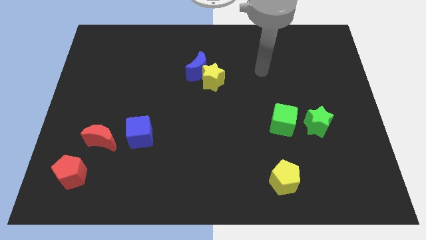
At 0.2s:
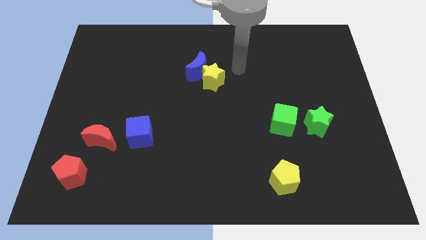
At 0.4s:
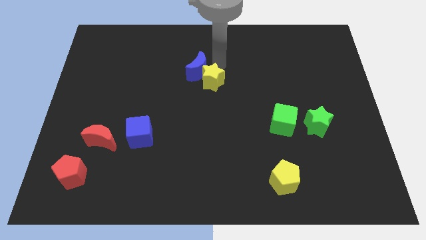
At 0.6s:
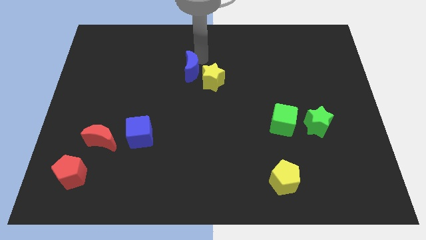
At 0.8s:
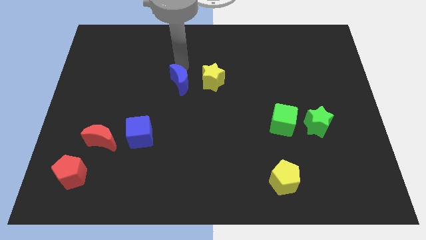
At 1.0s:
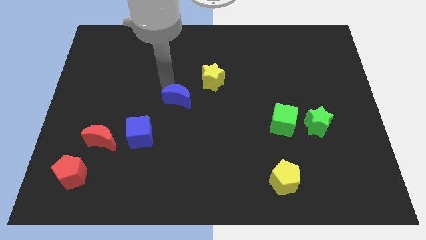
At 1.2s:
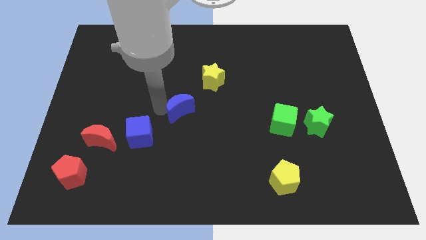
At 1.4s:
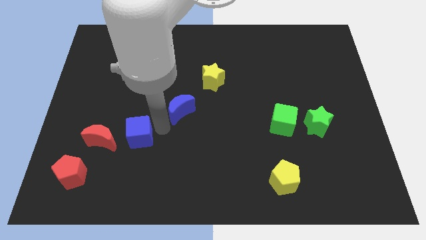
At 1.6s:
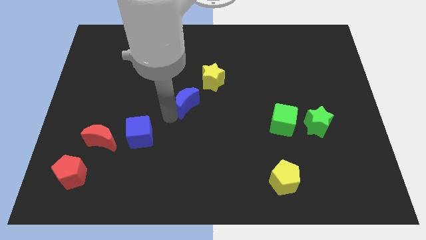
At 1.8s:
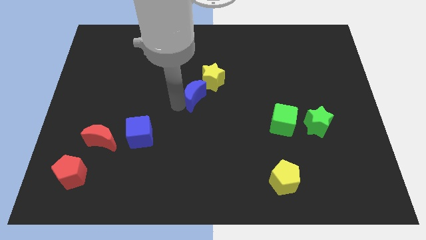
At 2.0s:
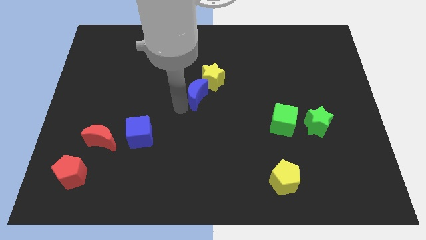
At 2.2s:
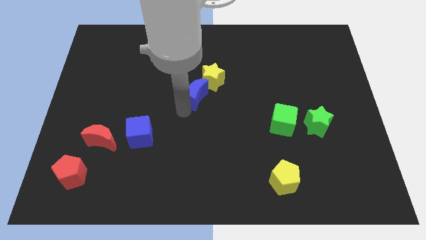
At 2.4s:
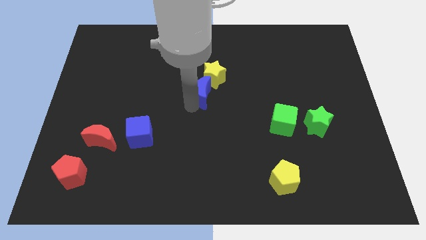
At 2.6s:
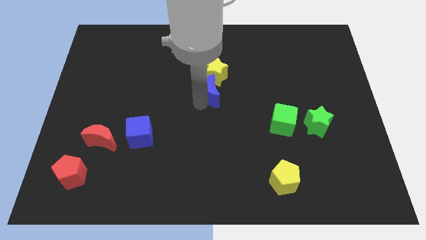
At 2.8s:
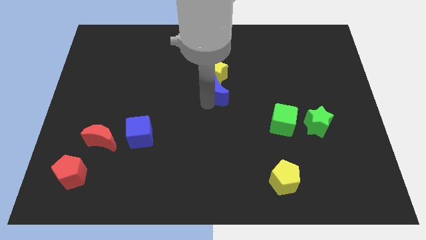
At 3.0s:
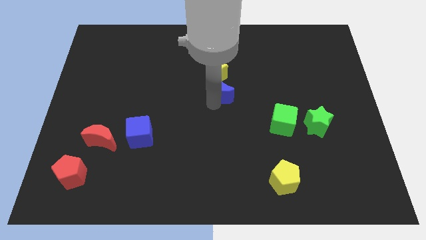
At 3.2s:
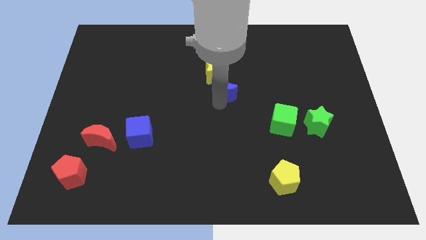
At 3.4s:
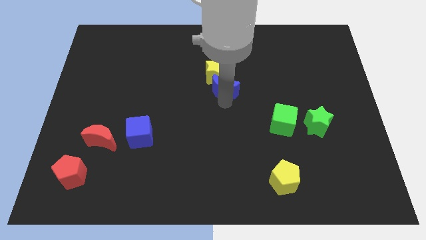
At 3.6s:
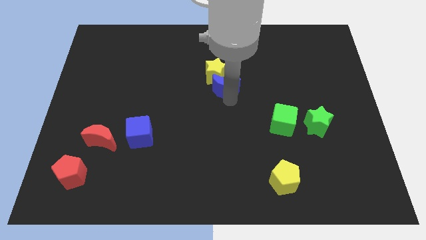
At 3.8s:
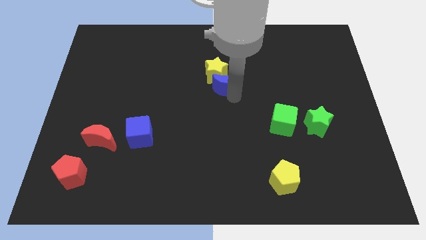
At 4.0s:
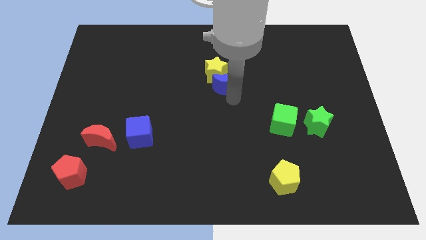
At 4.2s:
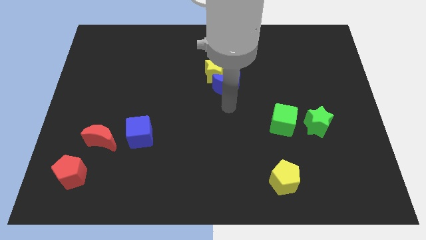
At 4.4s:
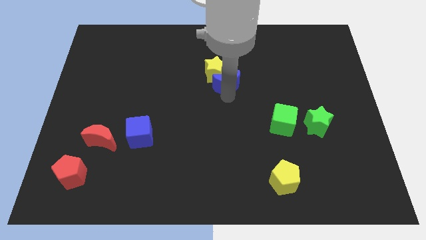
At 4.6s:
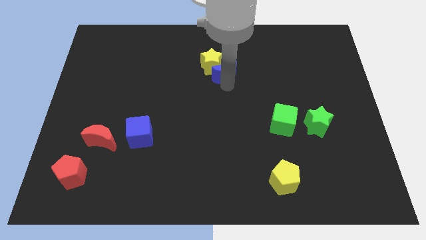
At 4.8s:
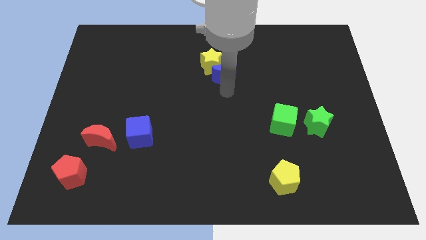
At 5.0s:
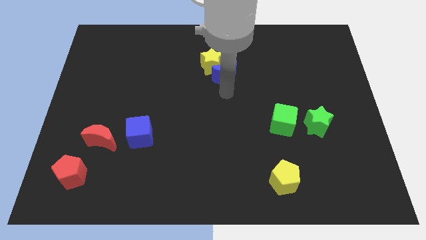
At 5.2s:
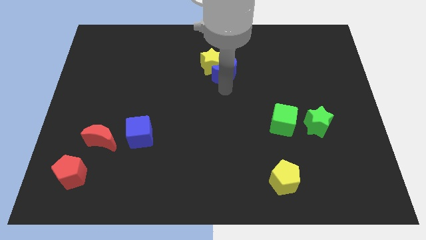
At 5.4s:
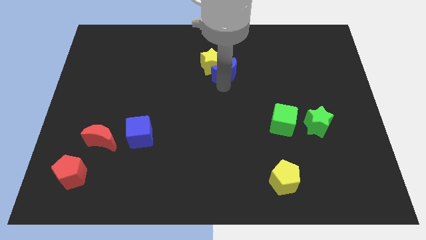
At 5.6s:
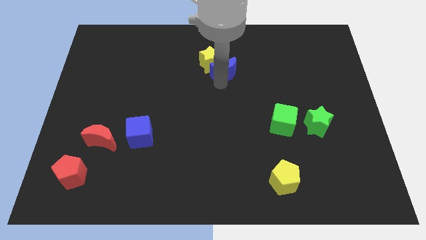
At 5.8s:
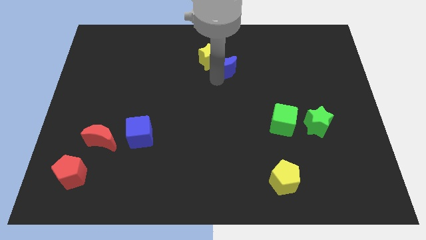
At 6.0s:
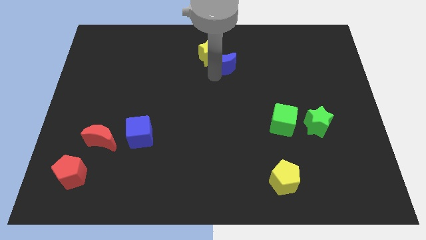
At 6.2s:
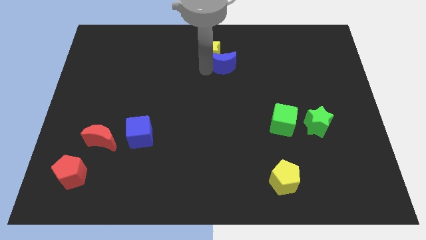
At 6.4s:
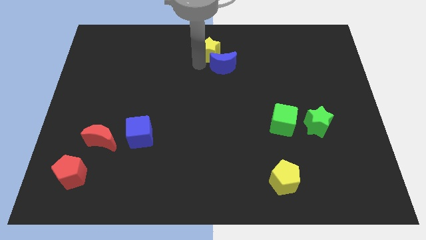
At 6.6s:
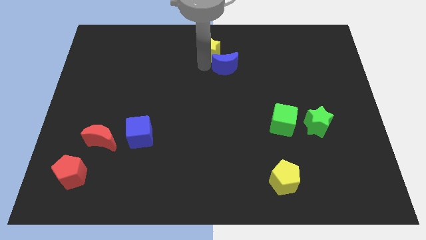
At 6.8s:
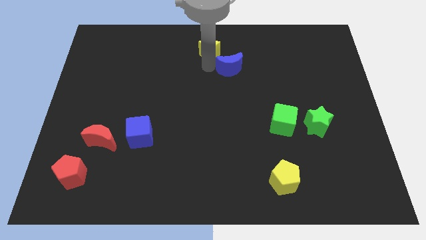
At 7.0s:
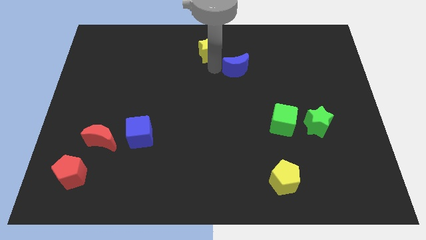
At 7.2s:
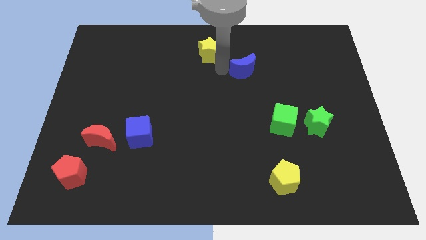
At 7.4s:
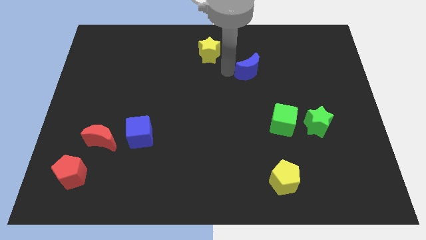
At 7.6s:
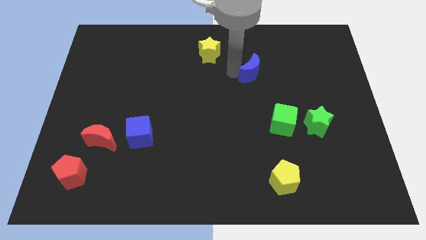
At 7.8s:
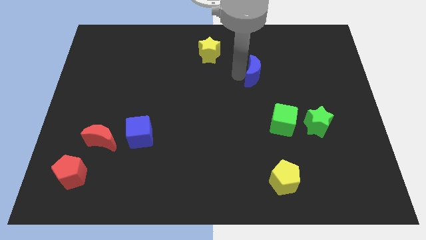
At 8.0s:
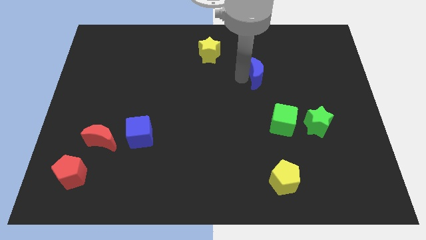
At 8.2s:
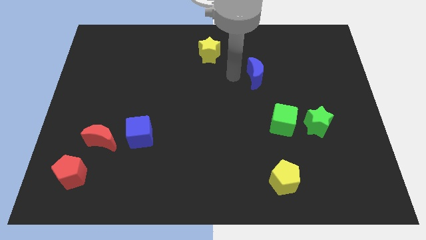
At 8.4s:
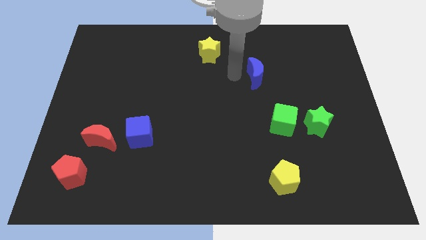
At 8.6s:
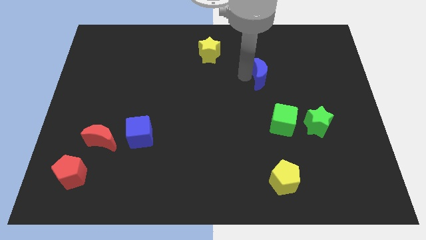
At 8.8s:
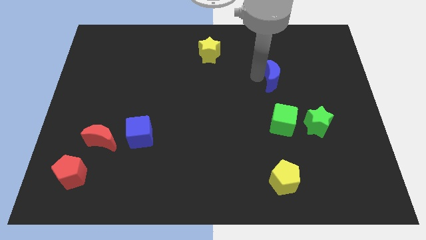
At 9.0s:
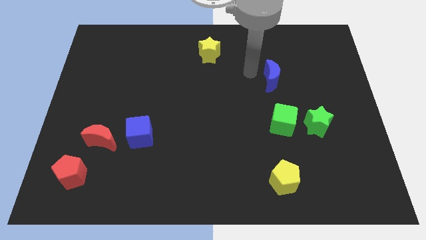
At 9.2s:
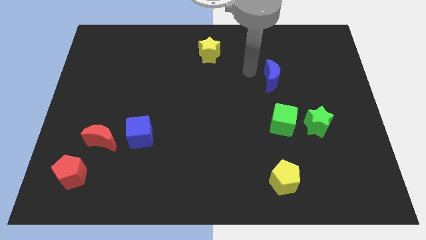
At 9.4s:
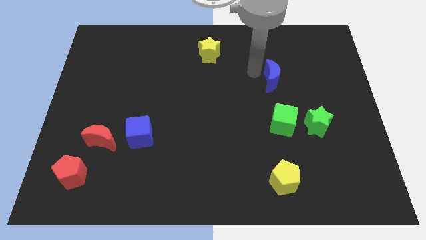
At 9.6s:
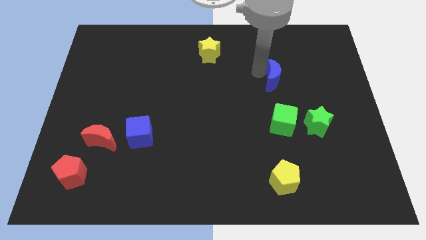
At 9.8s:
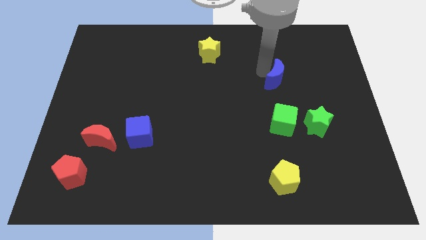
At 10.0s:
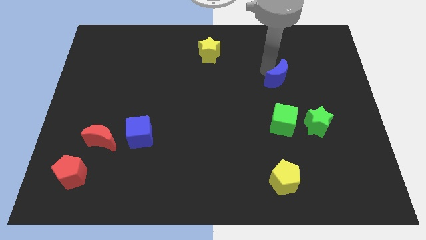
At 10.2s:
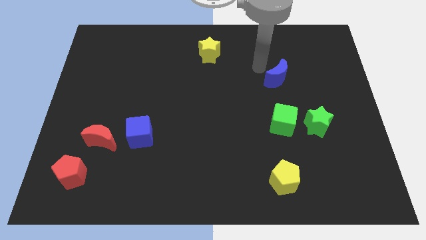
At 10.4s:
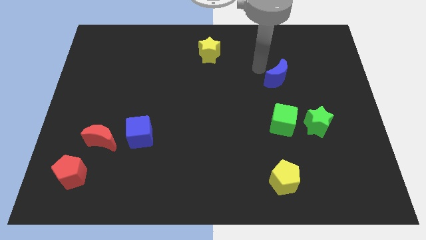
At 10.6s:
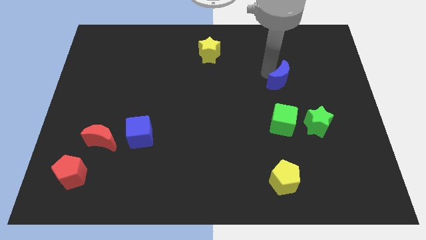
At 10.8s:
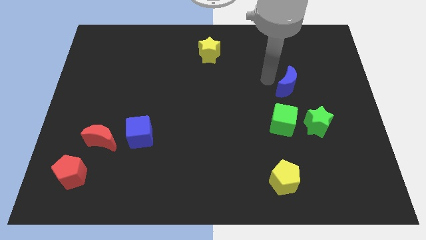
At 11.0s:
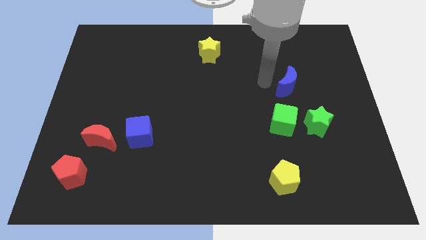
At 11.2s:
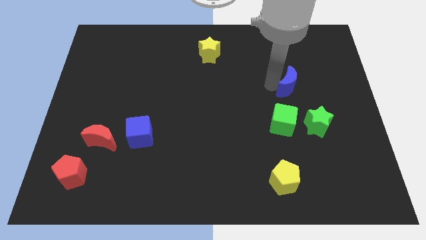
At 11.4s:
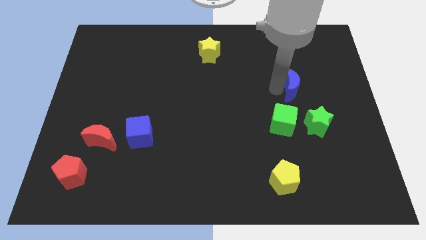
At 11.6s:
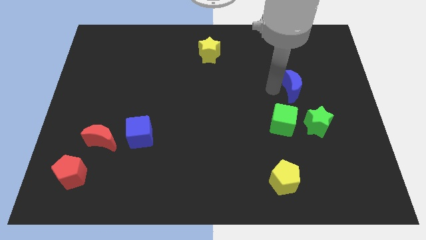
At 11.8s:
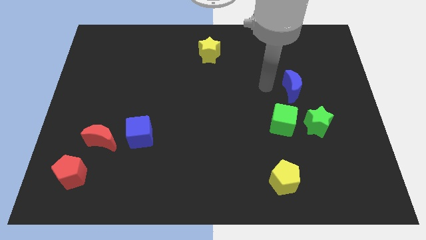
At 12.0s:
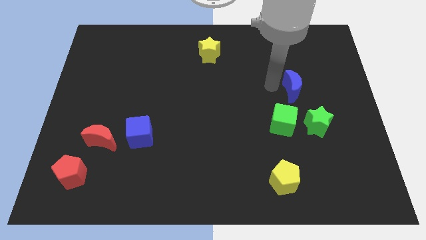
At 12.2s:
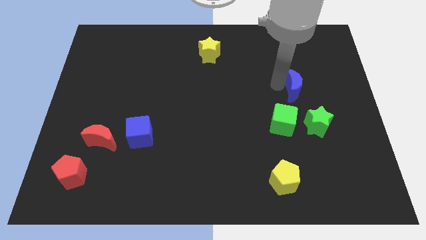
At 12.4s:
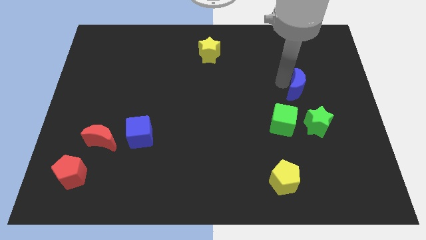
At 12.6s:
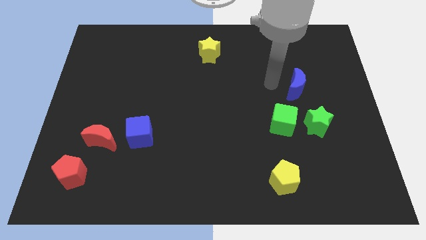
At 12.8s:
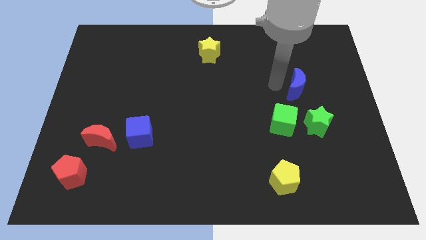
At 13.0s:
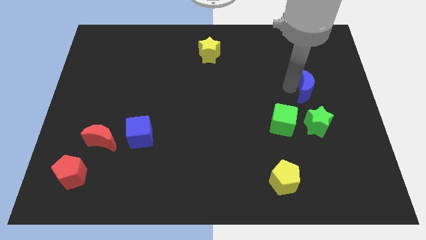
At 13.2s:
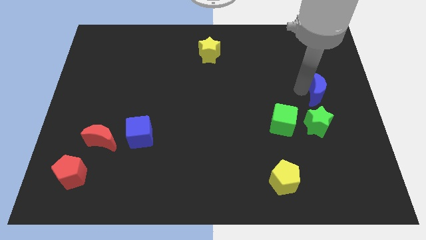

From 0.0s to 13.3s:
move the blue moon to the right side

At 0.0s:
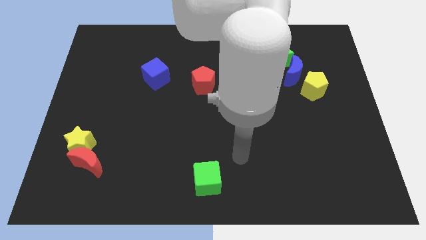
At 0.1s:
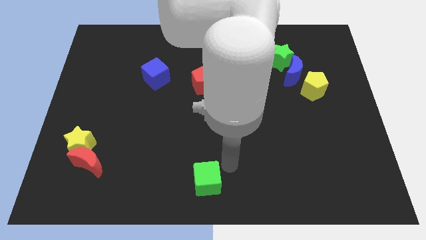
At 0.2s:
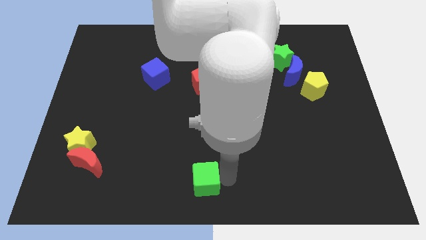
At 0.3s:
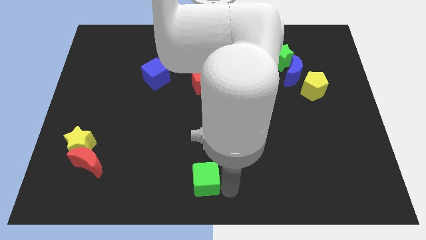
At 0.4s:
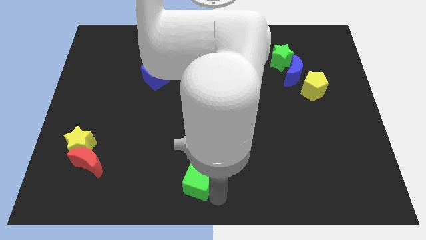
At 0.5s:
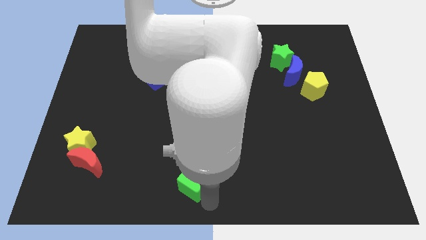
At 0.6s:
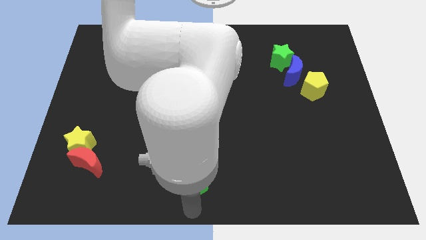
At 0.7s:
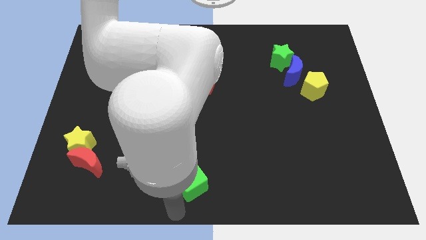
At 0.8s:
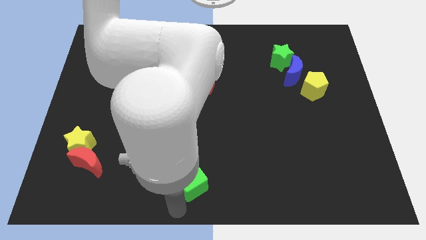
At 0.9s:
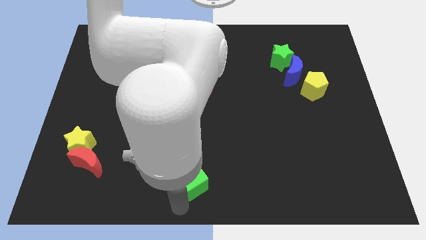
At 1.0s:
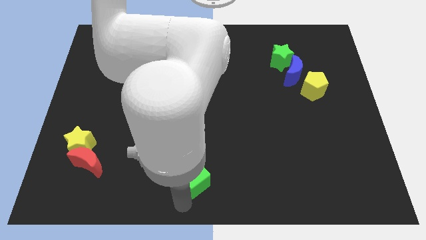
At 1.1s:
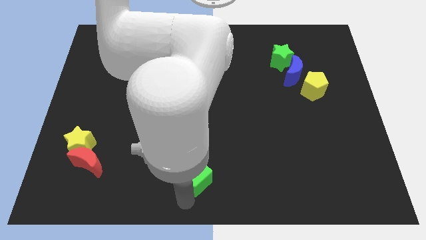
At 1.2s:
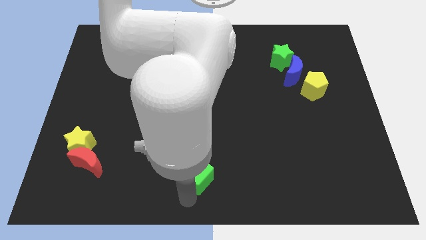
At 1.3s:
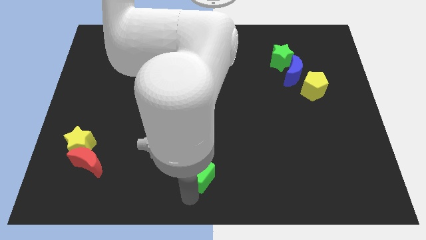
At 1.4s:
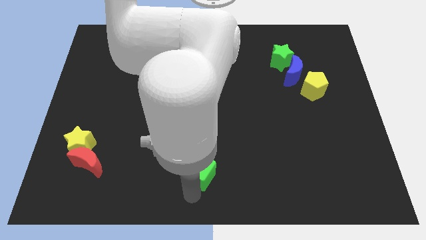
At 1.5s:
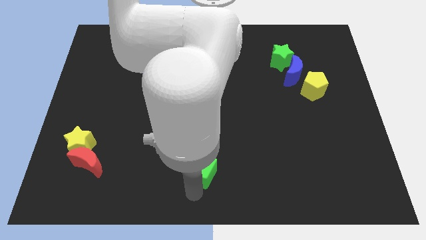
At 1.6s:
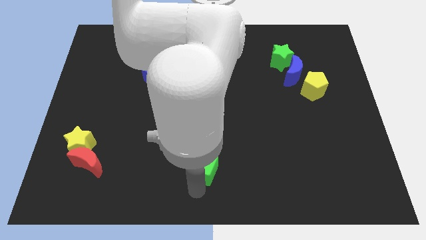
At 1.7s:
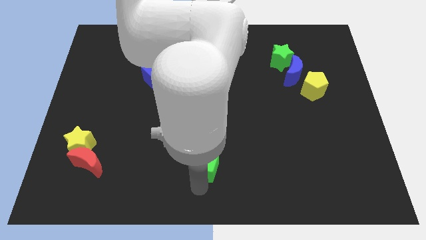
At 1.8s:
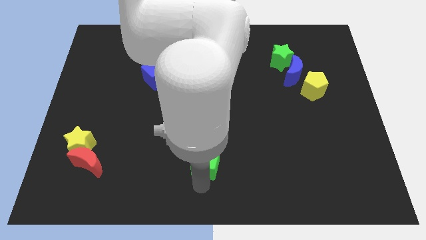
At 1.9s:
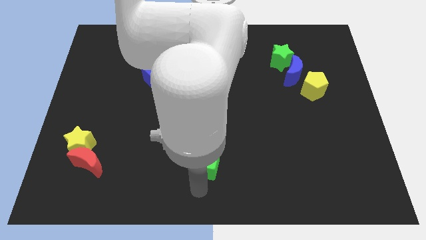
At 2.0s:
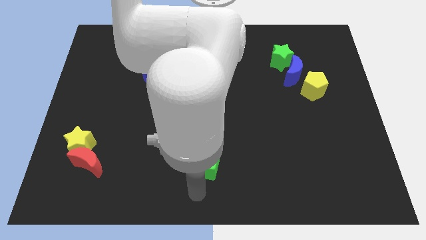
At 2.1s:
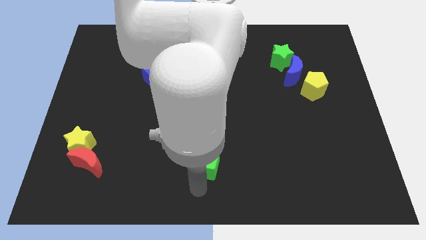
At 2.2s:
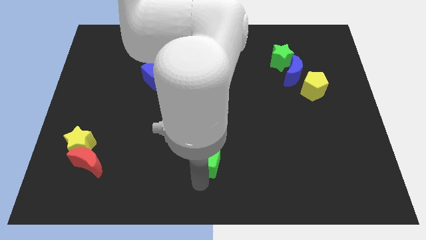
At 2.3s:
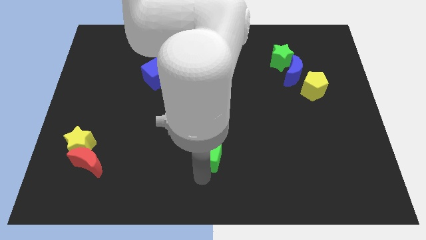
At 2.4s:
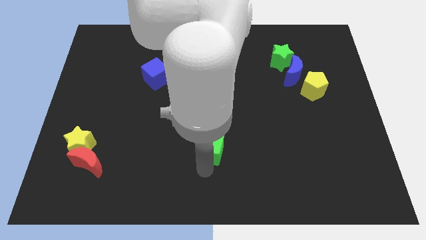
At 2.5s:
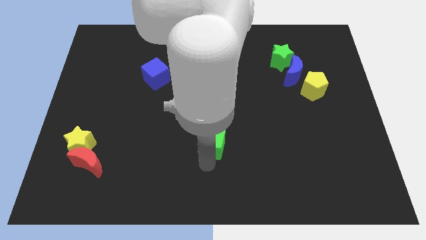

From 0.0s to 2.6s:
slide the green cube to the center of the board
